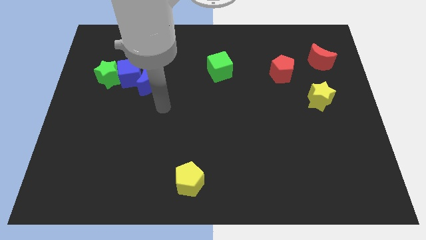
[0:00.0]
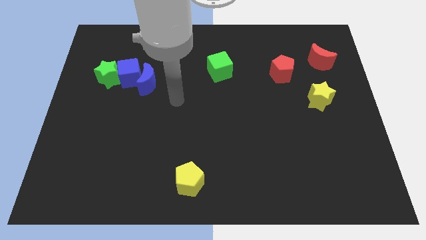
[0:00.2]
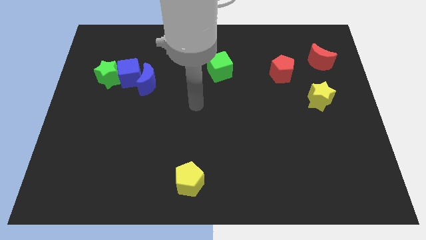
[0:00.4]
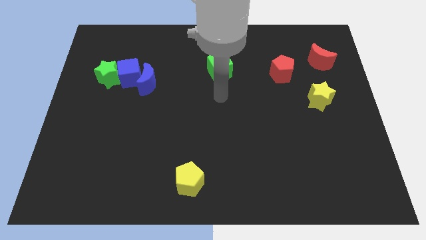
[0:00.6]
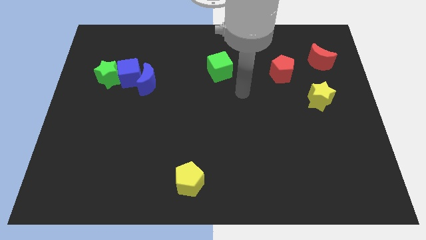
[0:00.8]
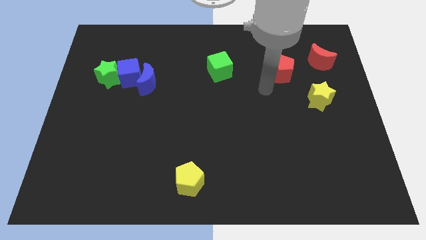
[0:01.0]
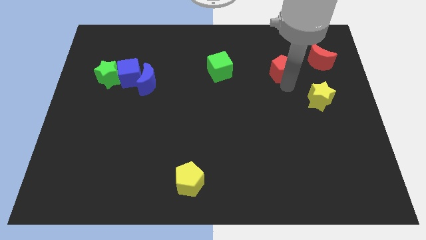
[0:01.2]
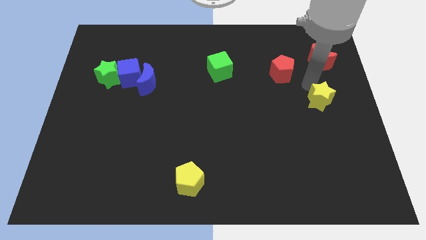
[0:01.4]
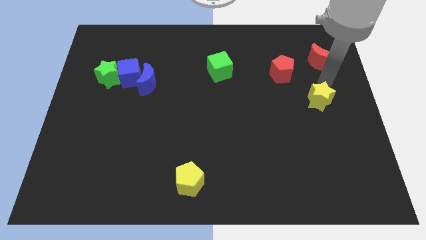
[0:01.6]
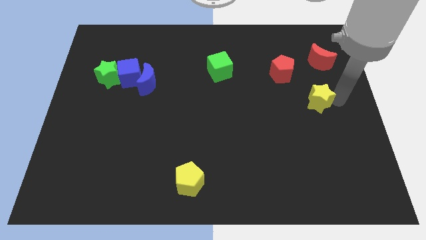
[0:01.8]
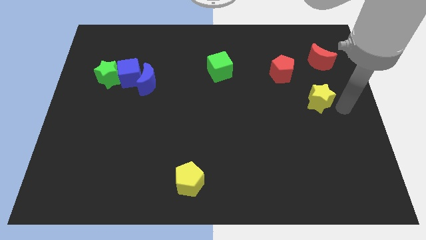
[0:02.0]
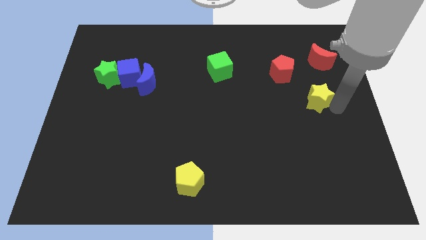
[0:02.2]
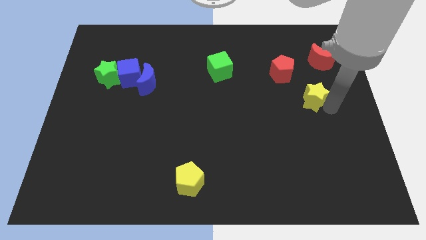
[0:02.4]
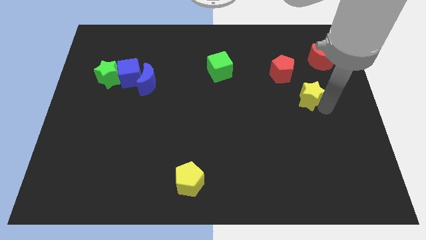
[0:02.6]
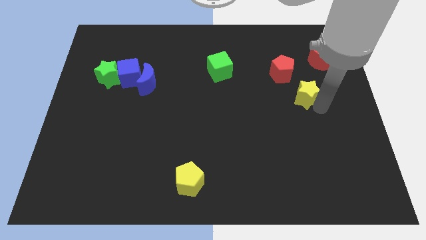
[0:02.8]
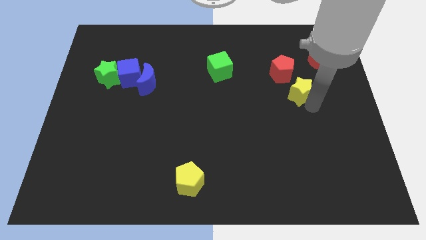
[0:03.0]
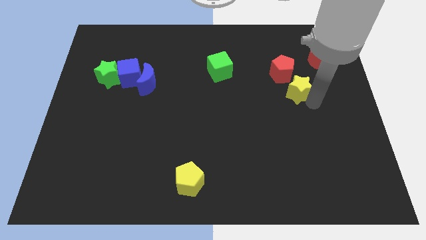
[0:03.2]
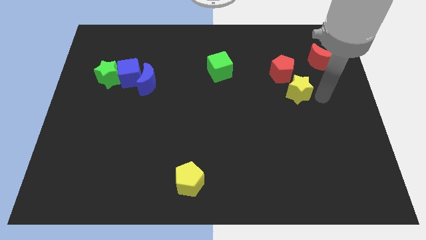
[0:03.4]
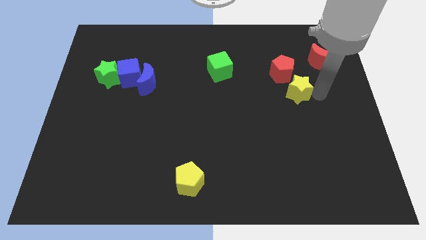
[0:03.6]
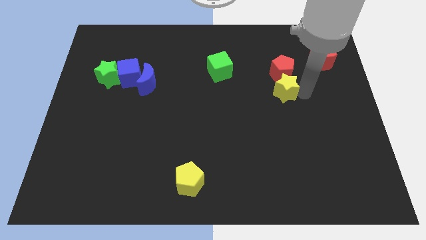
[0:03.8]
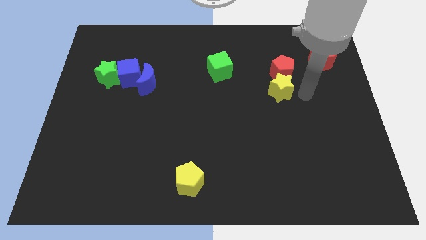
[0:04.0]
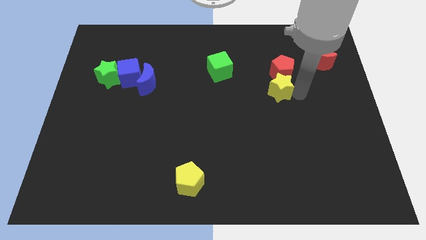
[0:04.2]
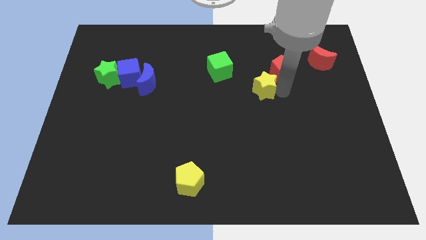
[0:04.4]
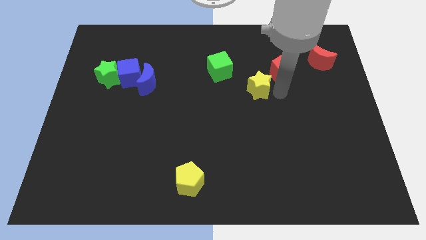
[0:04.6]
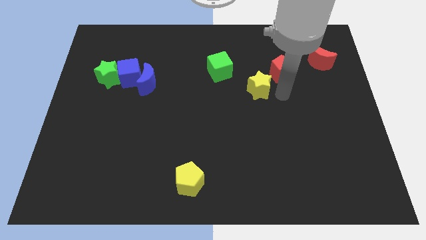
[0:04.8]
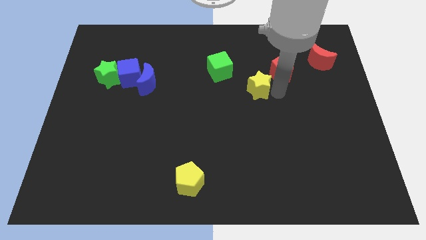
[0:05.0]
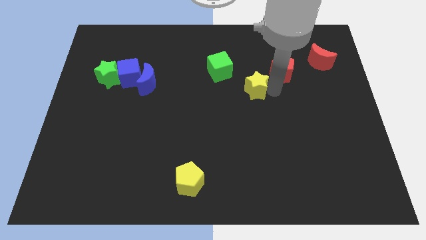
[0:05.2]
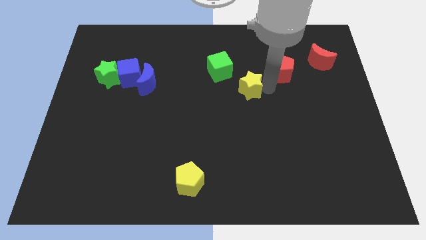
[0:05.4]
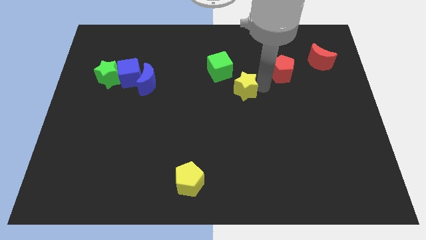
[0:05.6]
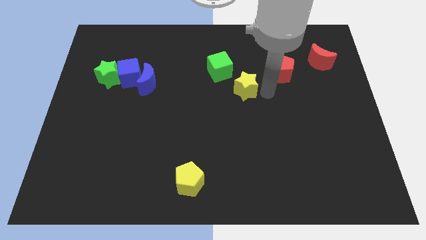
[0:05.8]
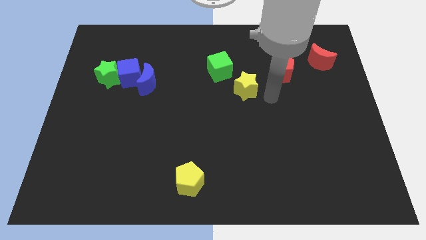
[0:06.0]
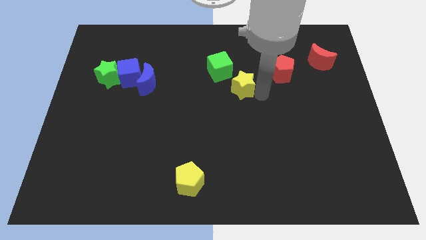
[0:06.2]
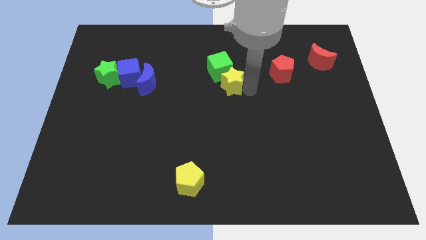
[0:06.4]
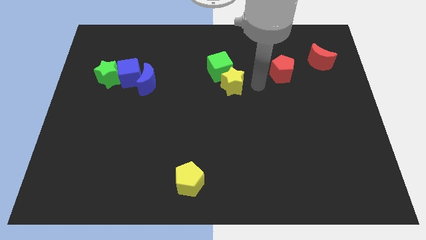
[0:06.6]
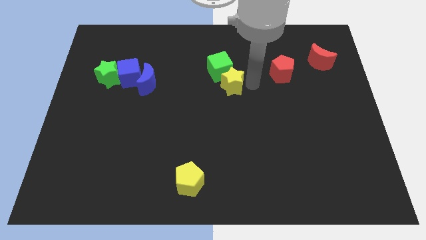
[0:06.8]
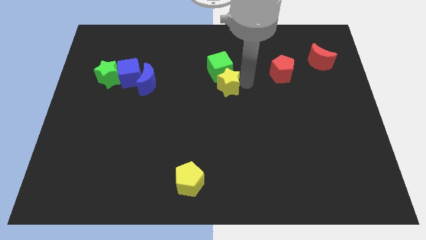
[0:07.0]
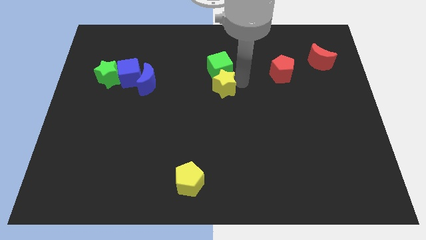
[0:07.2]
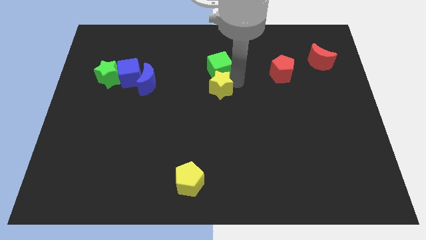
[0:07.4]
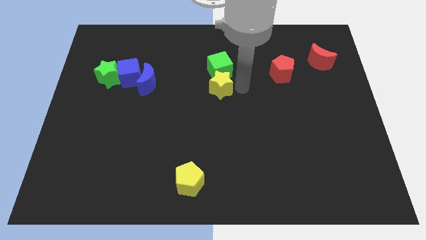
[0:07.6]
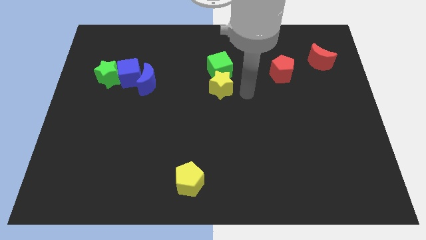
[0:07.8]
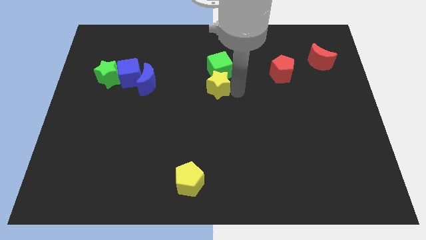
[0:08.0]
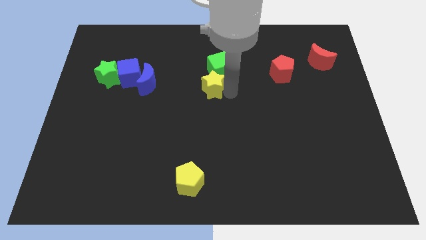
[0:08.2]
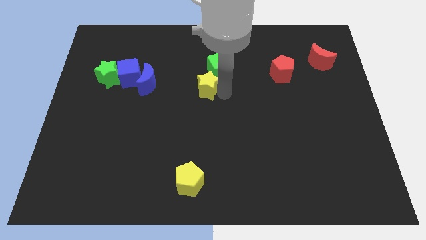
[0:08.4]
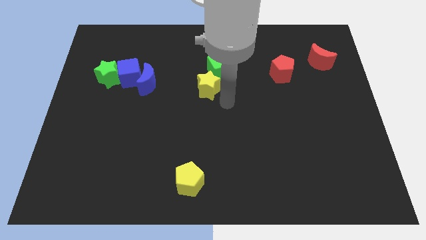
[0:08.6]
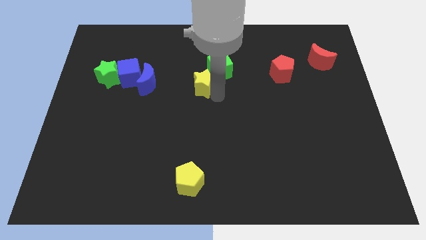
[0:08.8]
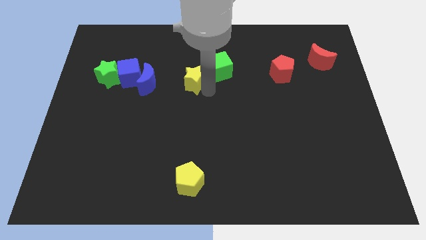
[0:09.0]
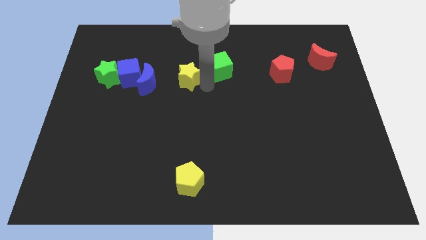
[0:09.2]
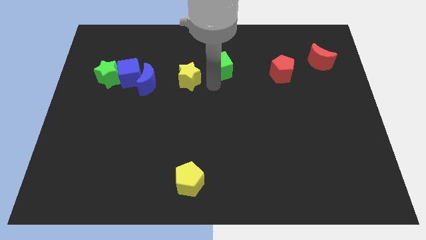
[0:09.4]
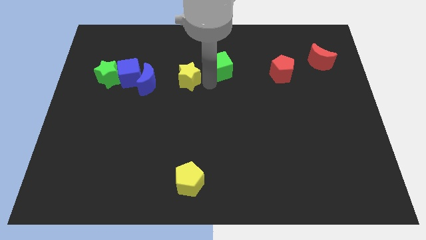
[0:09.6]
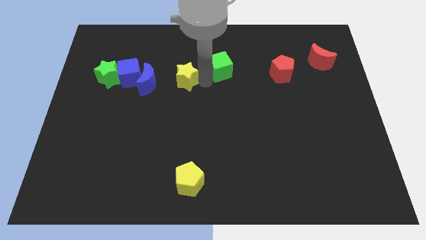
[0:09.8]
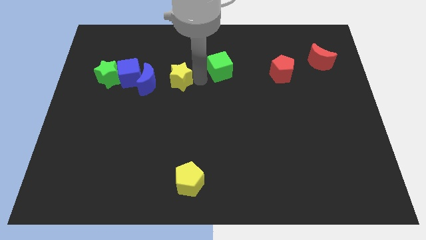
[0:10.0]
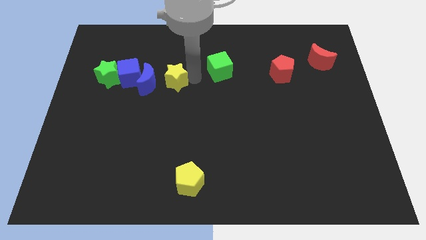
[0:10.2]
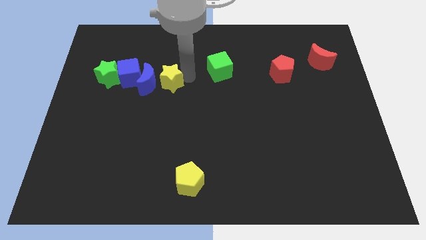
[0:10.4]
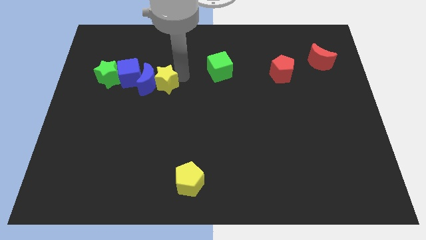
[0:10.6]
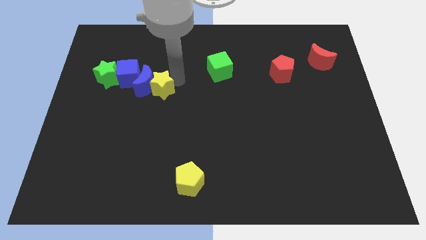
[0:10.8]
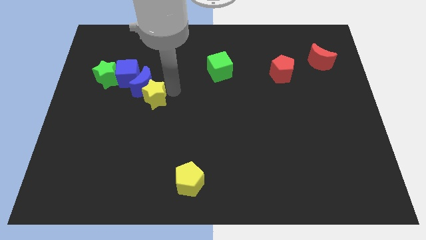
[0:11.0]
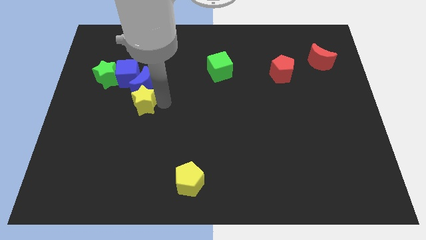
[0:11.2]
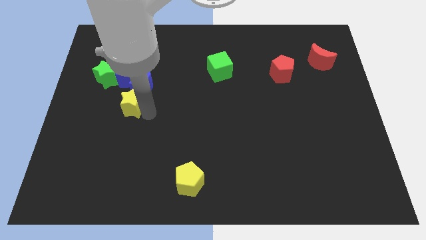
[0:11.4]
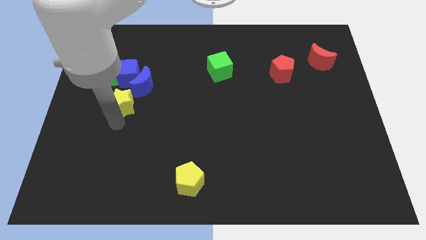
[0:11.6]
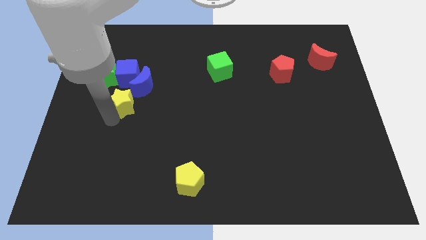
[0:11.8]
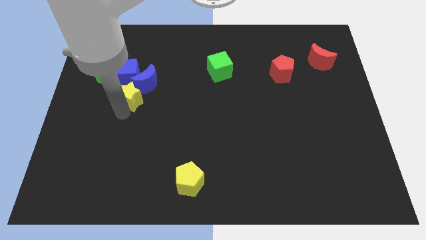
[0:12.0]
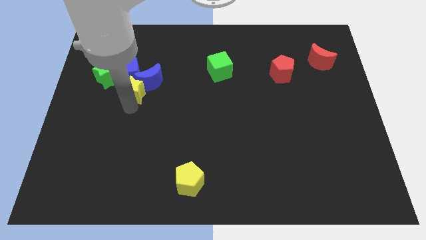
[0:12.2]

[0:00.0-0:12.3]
put the yellow star to the blue cube

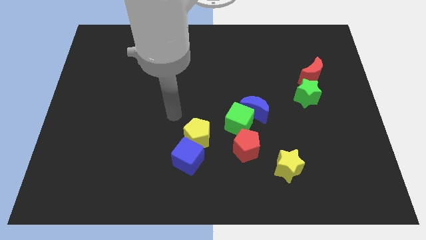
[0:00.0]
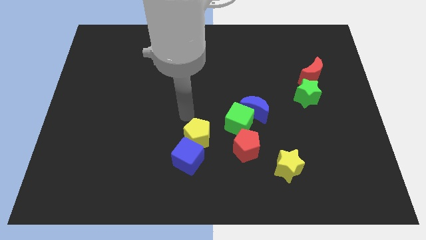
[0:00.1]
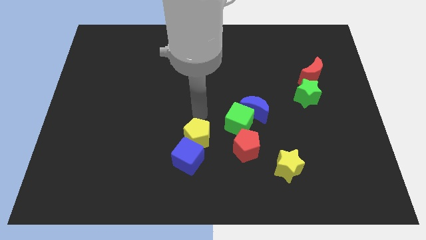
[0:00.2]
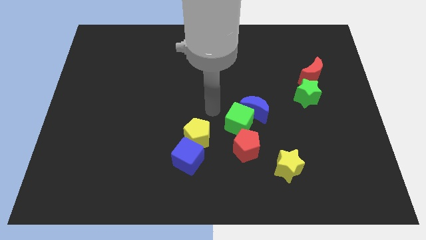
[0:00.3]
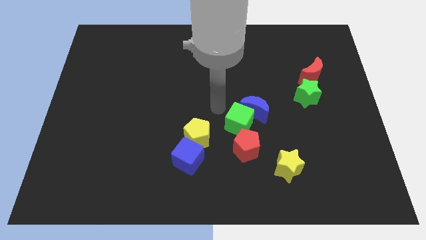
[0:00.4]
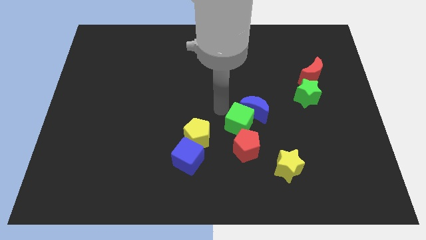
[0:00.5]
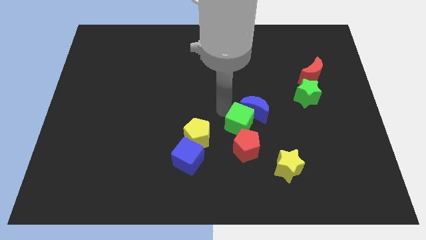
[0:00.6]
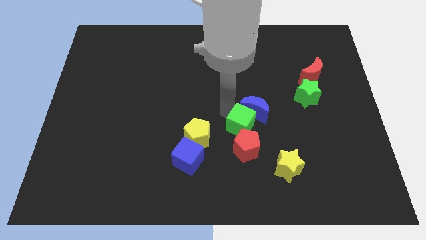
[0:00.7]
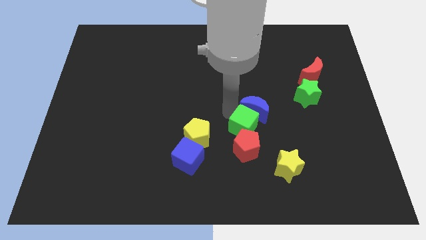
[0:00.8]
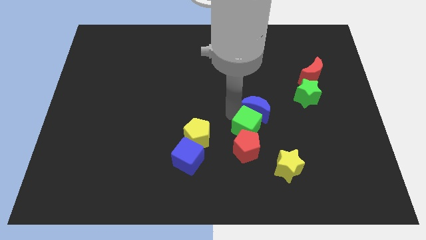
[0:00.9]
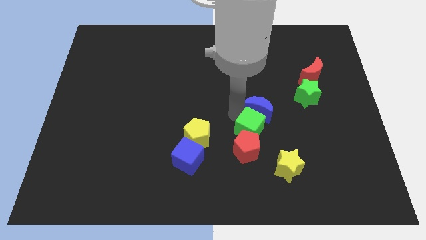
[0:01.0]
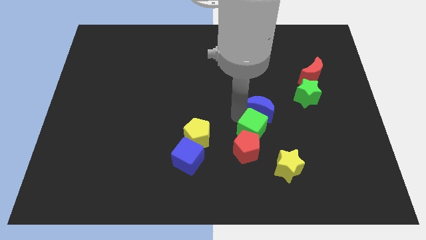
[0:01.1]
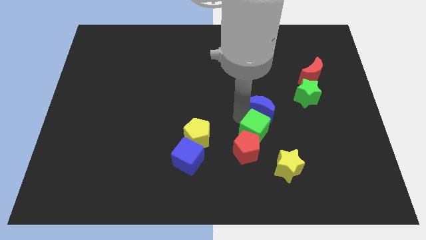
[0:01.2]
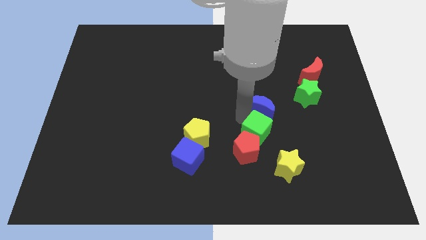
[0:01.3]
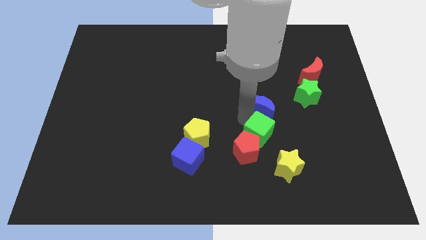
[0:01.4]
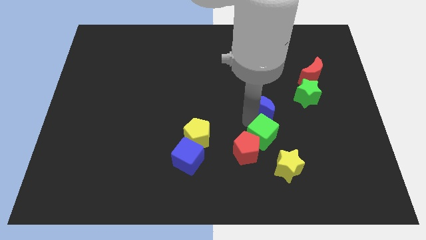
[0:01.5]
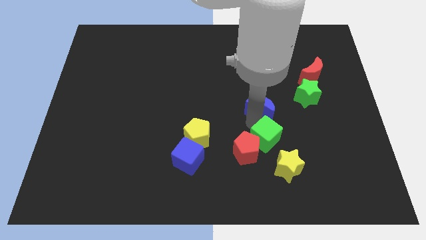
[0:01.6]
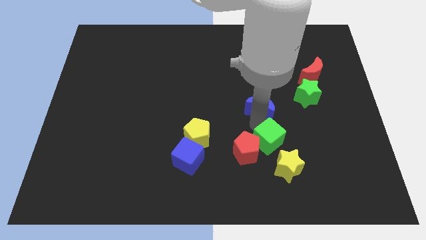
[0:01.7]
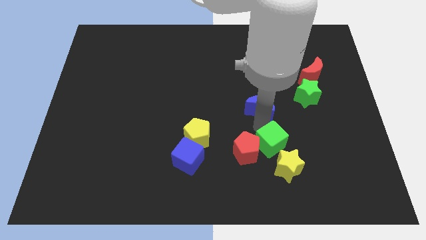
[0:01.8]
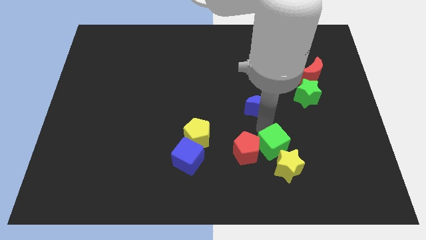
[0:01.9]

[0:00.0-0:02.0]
put the green cube close to the yellow star
